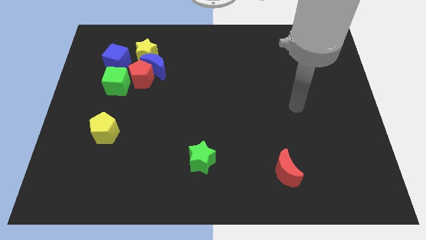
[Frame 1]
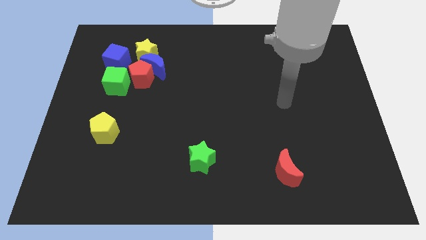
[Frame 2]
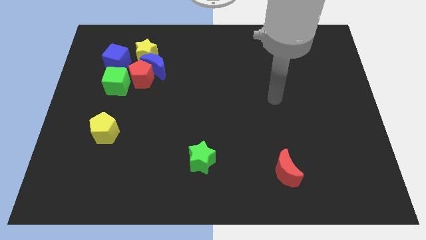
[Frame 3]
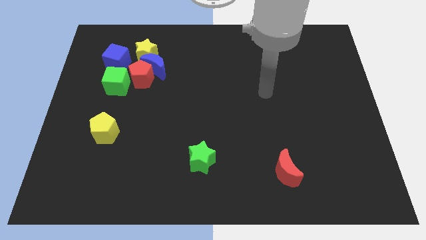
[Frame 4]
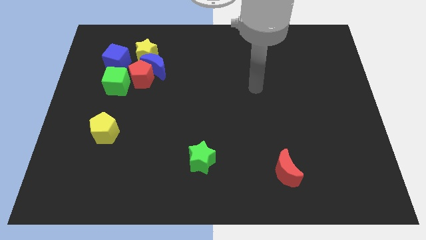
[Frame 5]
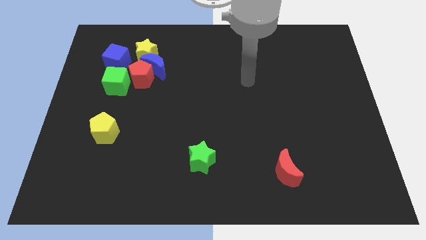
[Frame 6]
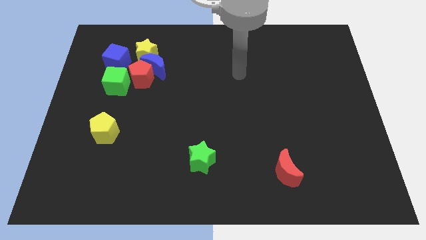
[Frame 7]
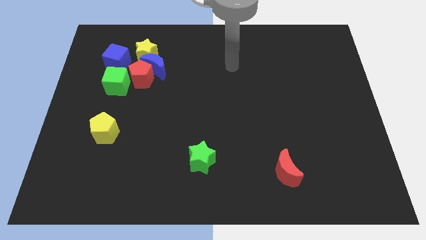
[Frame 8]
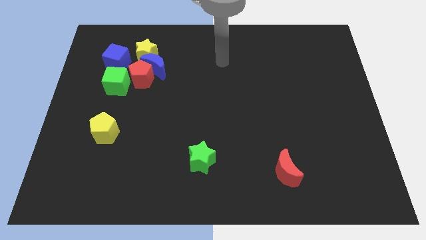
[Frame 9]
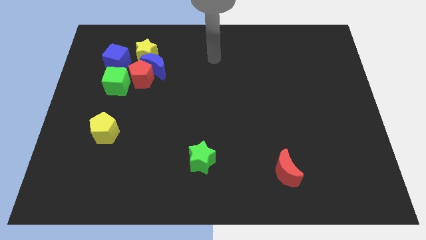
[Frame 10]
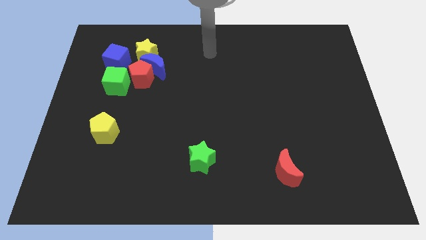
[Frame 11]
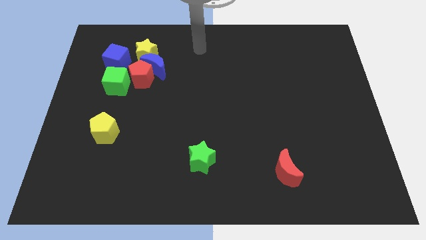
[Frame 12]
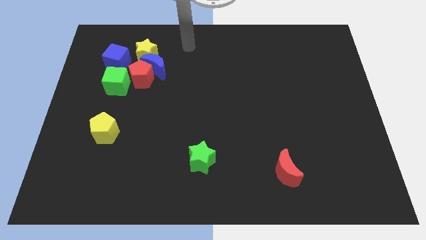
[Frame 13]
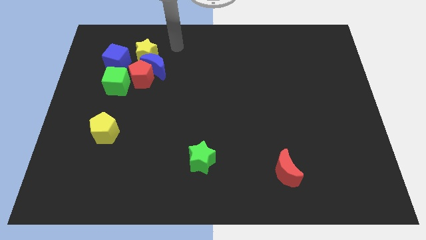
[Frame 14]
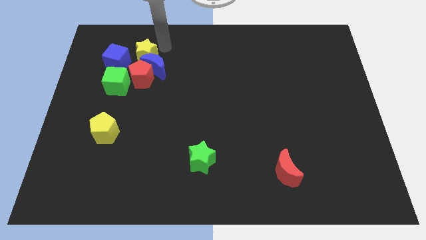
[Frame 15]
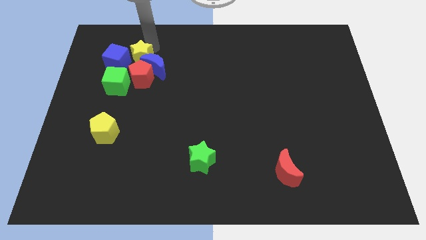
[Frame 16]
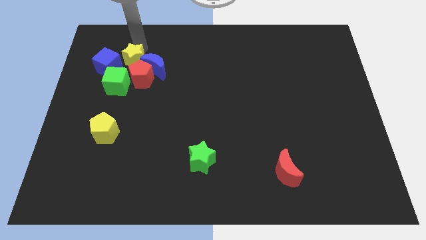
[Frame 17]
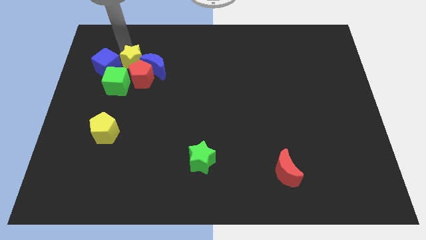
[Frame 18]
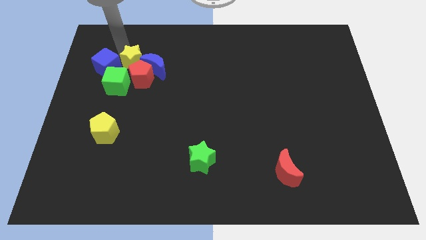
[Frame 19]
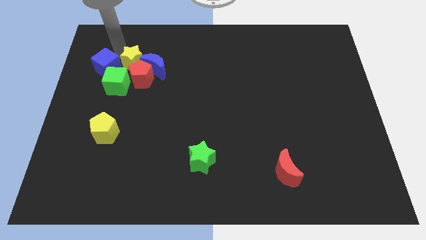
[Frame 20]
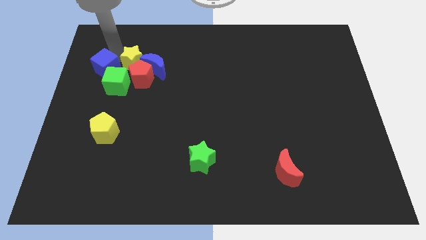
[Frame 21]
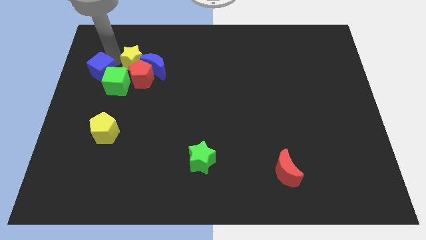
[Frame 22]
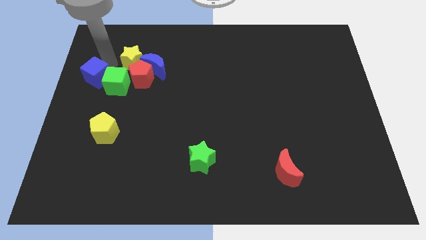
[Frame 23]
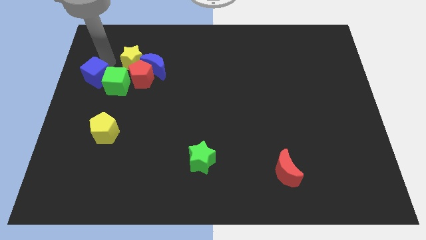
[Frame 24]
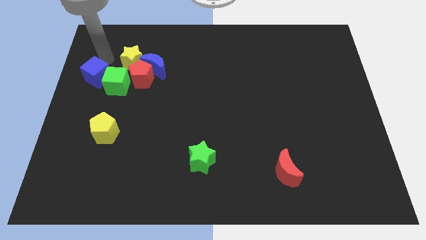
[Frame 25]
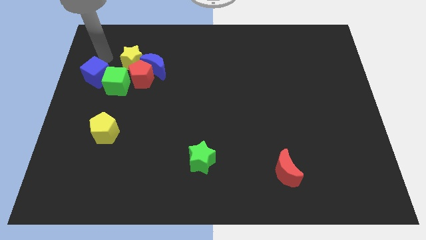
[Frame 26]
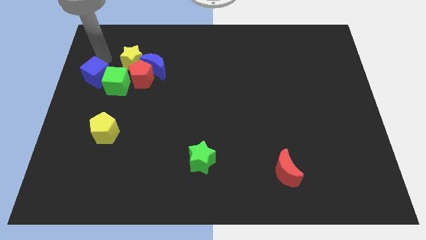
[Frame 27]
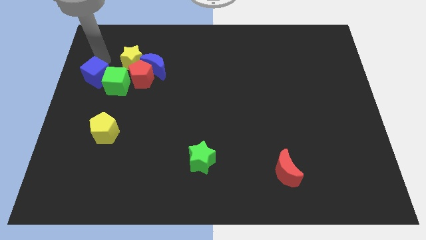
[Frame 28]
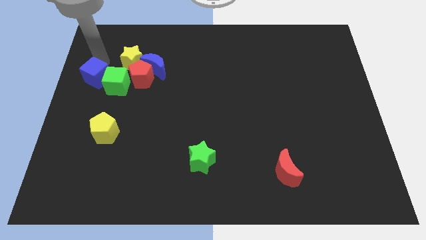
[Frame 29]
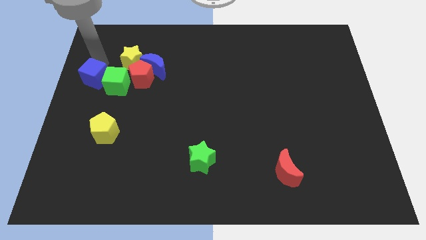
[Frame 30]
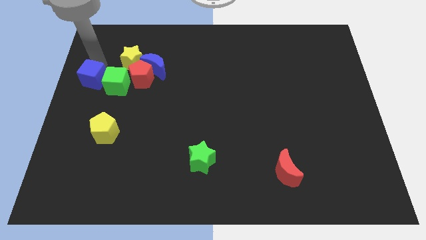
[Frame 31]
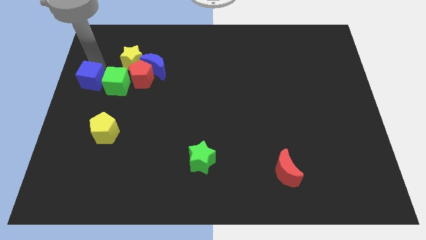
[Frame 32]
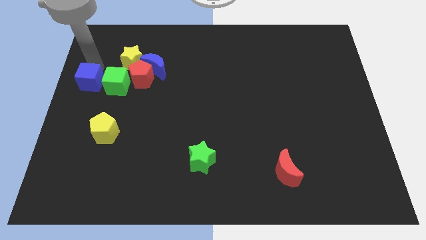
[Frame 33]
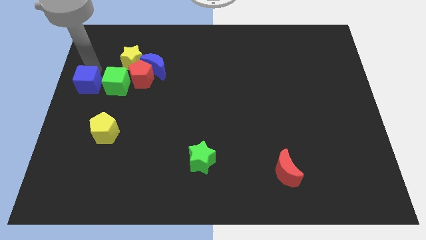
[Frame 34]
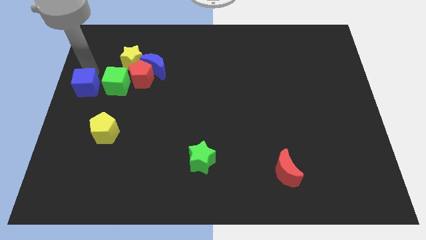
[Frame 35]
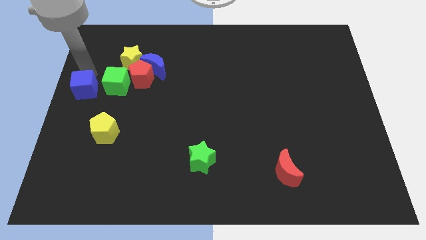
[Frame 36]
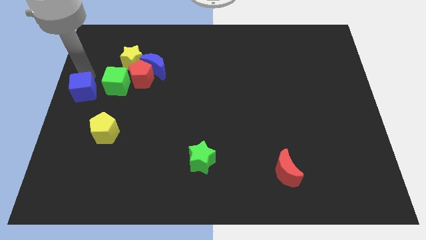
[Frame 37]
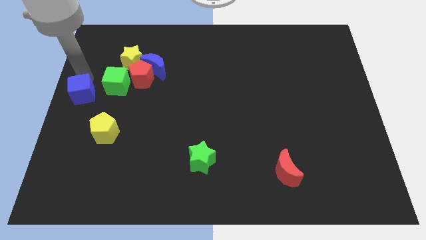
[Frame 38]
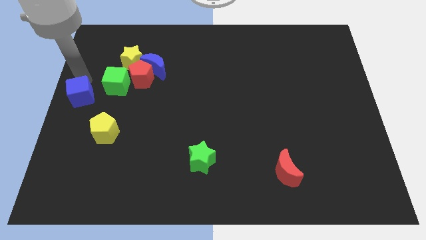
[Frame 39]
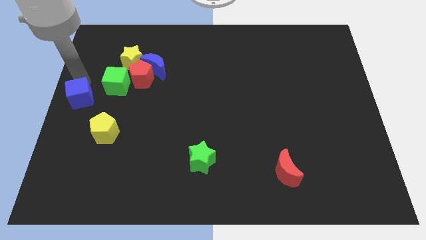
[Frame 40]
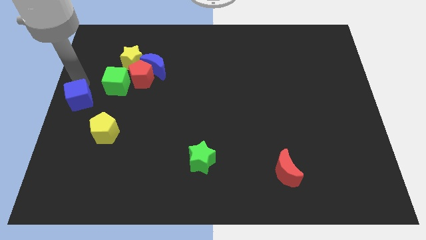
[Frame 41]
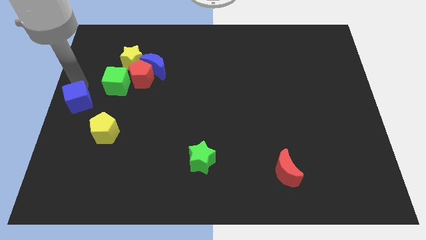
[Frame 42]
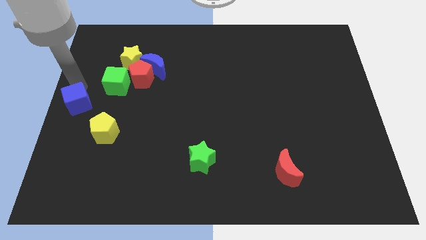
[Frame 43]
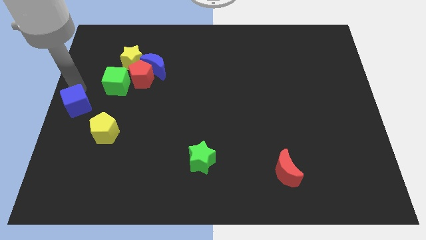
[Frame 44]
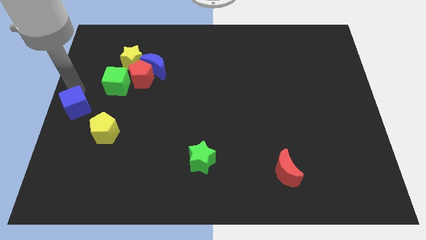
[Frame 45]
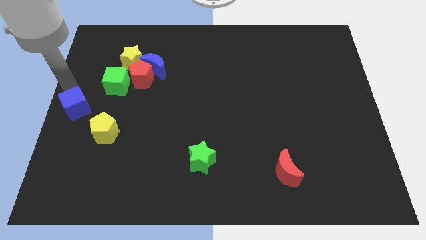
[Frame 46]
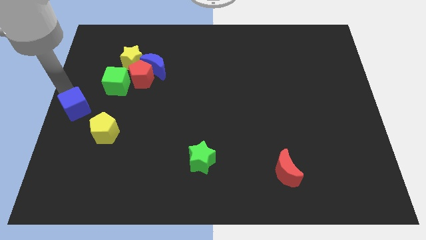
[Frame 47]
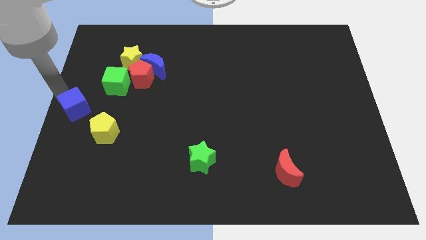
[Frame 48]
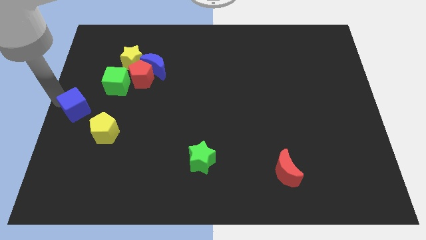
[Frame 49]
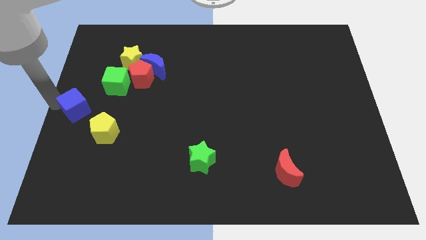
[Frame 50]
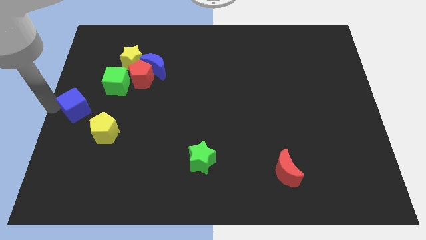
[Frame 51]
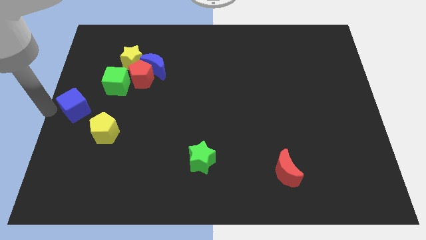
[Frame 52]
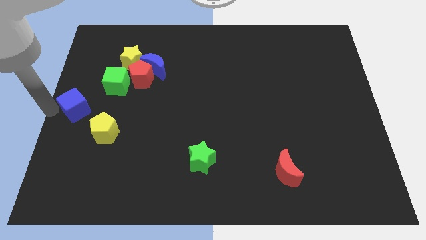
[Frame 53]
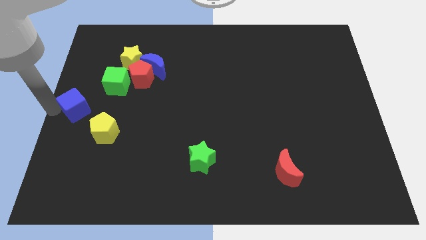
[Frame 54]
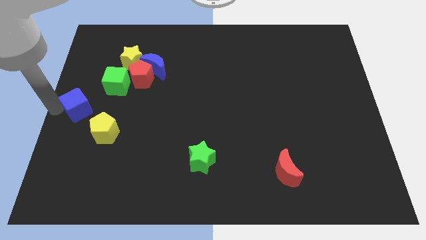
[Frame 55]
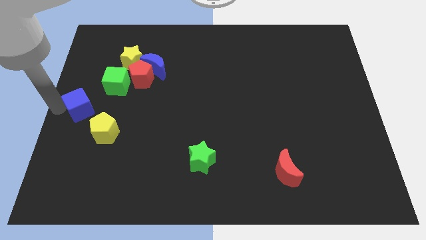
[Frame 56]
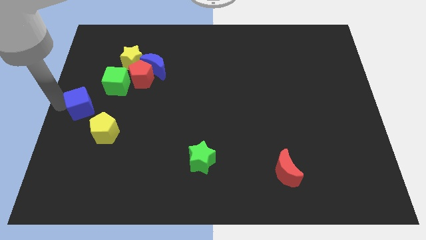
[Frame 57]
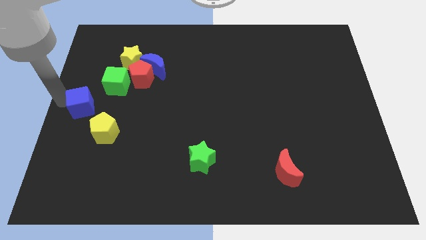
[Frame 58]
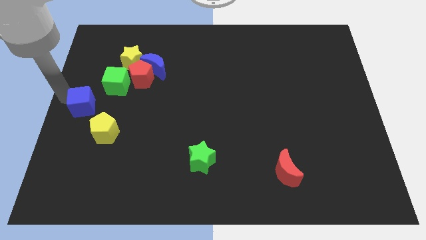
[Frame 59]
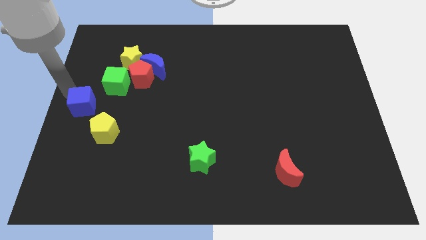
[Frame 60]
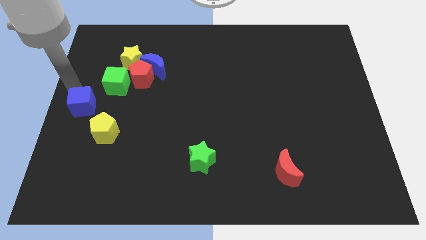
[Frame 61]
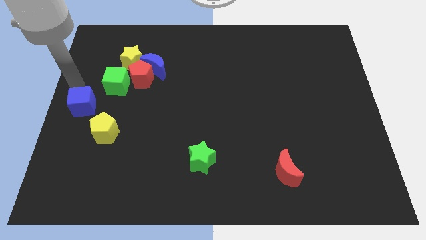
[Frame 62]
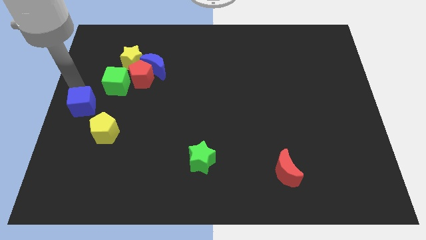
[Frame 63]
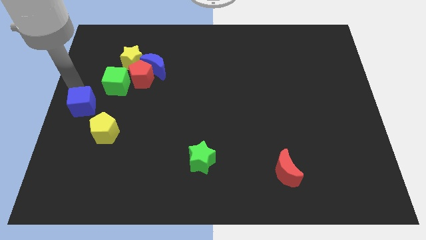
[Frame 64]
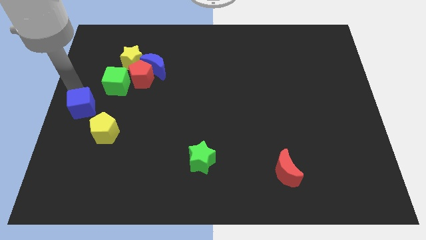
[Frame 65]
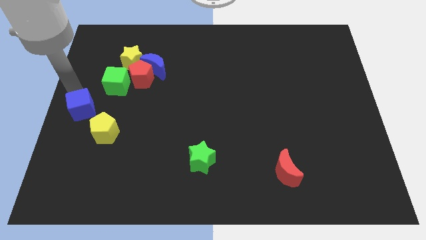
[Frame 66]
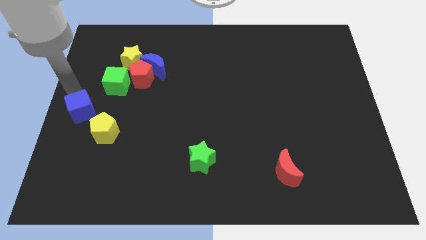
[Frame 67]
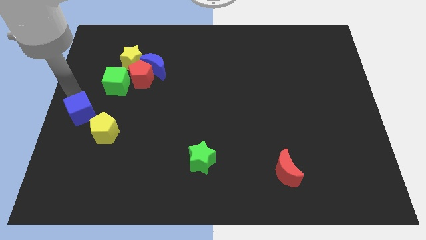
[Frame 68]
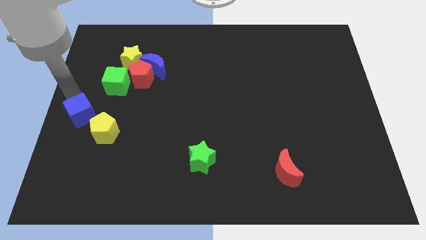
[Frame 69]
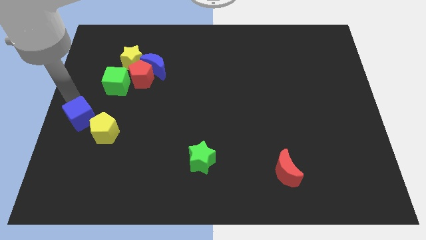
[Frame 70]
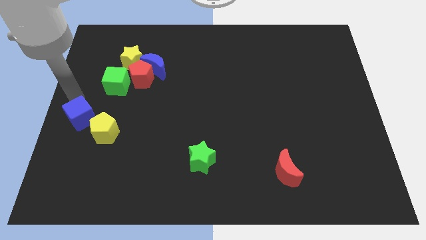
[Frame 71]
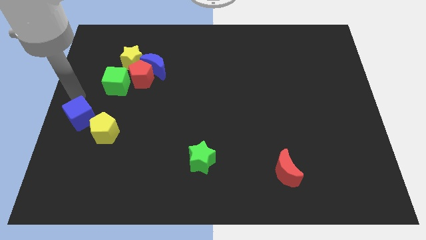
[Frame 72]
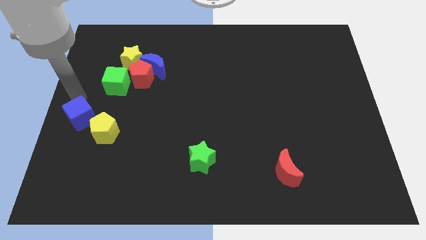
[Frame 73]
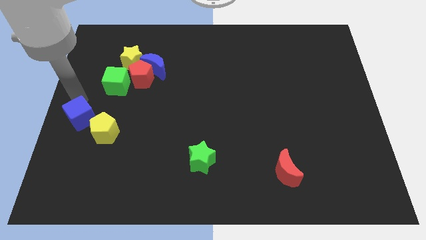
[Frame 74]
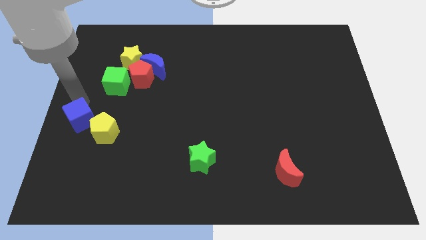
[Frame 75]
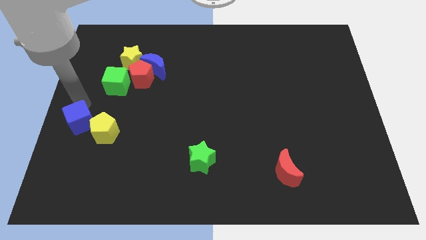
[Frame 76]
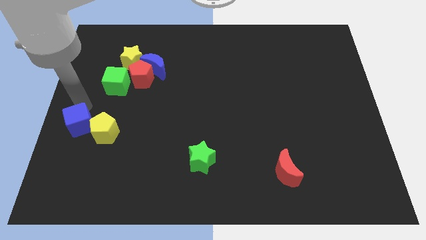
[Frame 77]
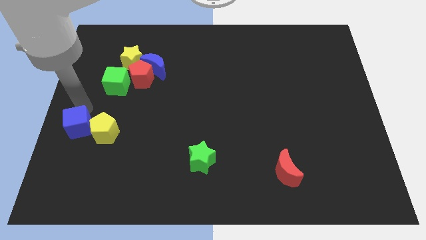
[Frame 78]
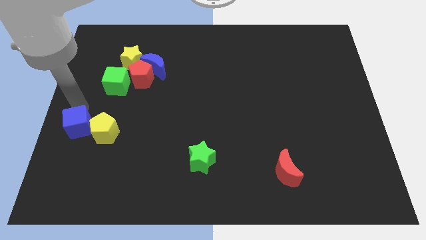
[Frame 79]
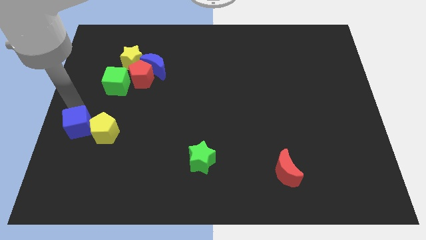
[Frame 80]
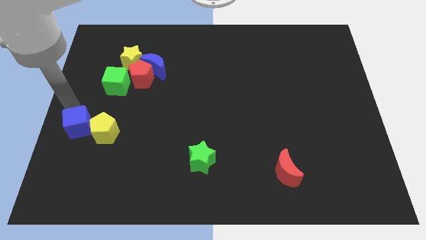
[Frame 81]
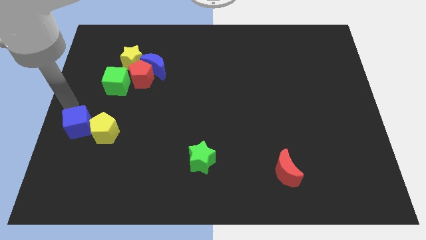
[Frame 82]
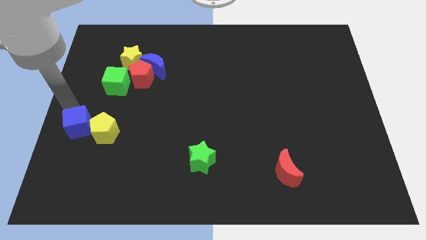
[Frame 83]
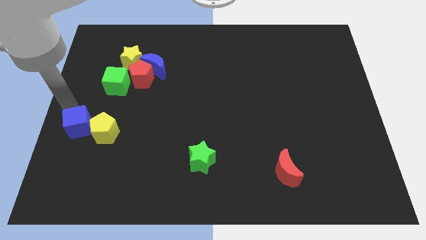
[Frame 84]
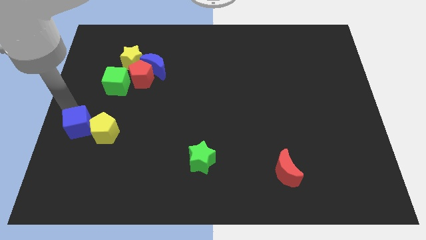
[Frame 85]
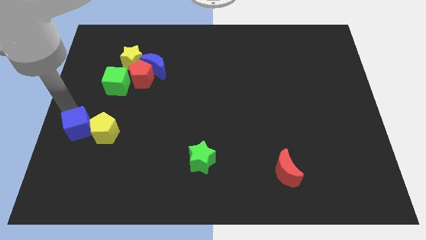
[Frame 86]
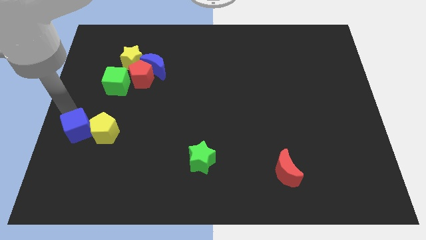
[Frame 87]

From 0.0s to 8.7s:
move the blue cube downwards
